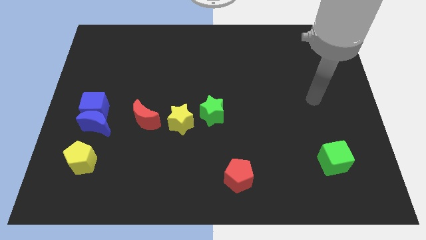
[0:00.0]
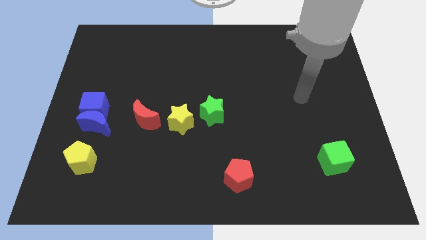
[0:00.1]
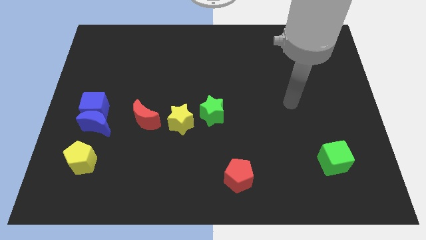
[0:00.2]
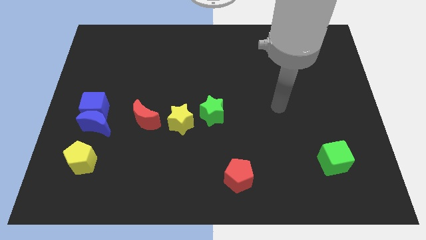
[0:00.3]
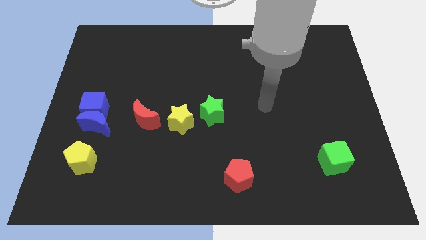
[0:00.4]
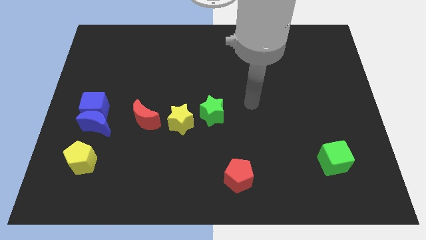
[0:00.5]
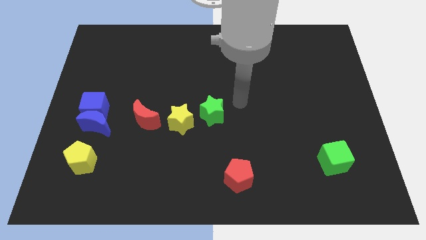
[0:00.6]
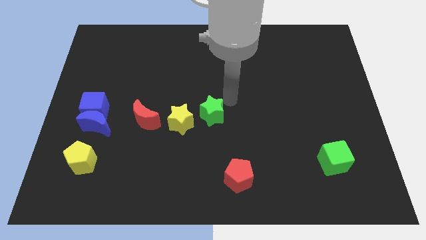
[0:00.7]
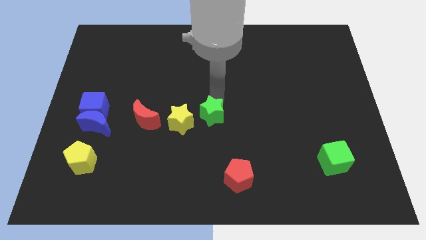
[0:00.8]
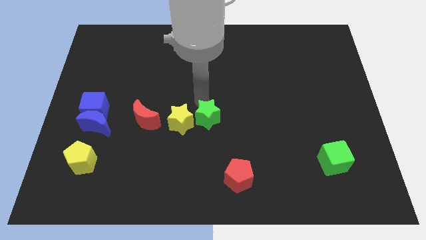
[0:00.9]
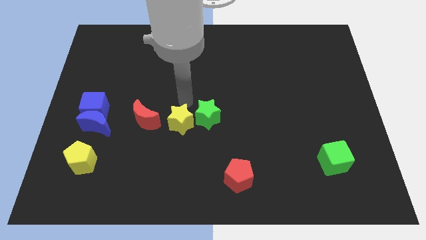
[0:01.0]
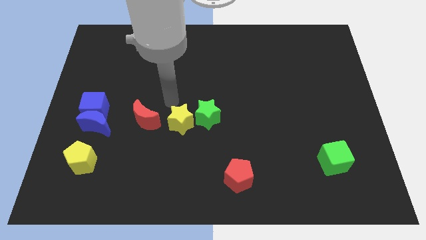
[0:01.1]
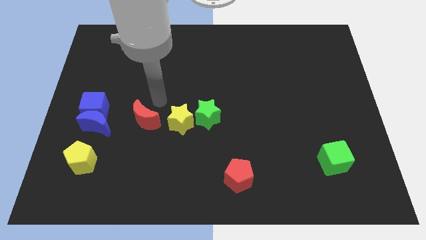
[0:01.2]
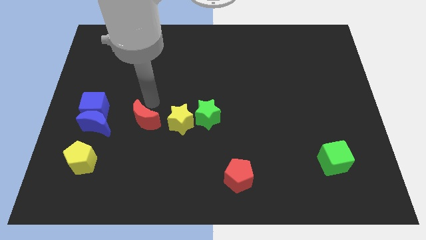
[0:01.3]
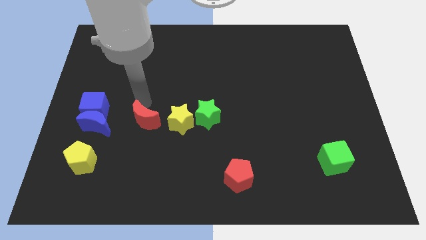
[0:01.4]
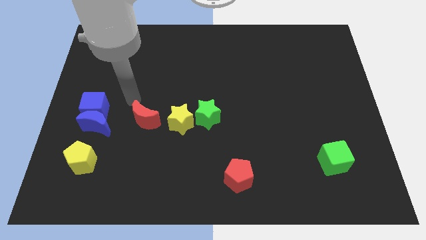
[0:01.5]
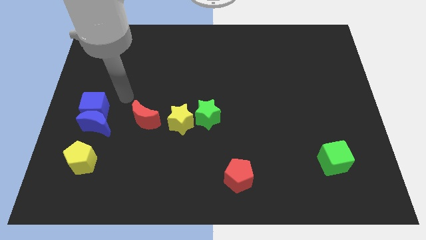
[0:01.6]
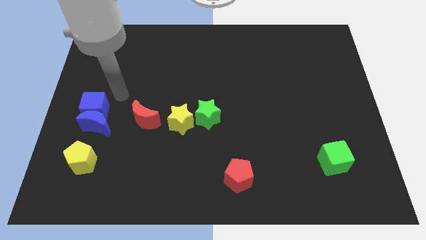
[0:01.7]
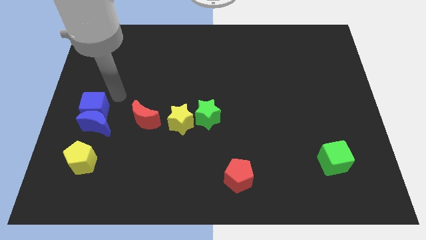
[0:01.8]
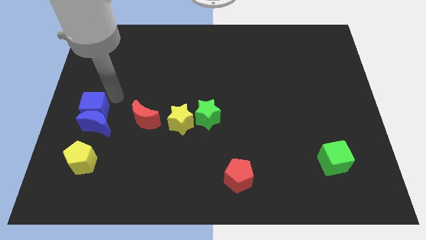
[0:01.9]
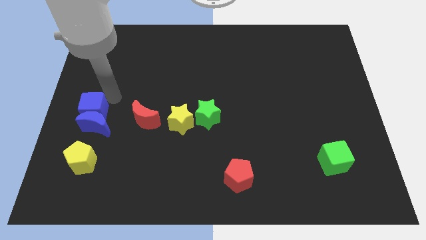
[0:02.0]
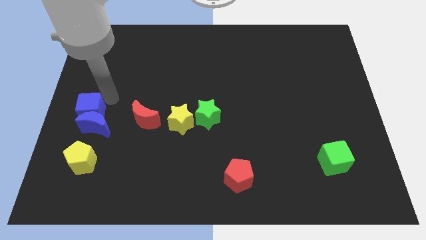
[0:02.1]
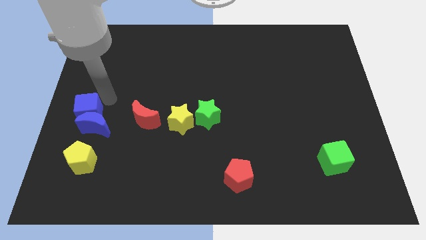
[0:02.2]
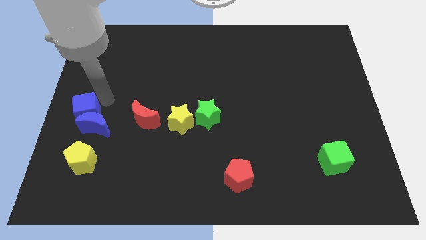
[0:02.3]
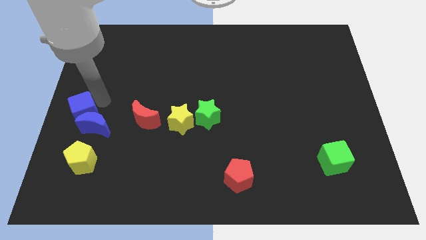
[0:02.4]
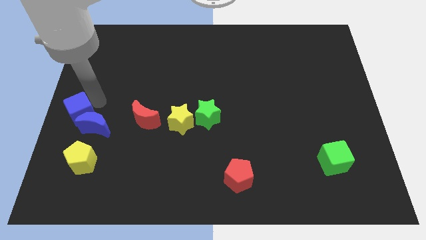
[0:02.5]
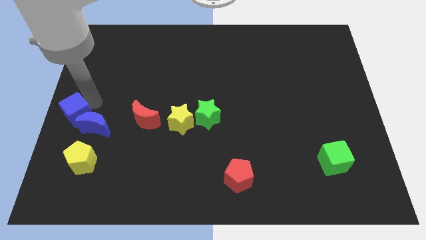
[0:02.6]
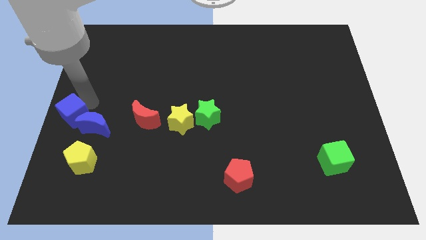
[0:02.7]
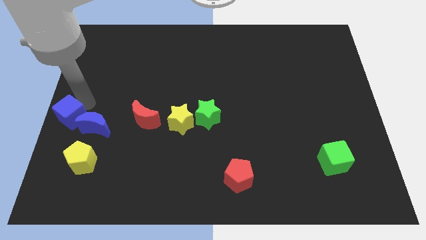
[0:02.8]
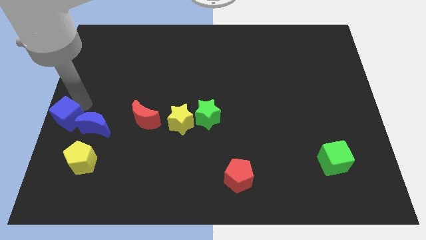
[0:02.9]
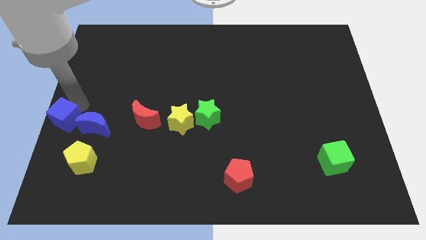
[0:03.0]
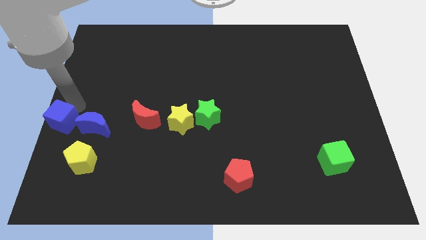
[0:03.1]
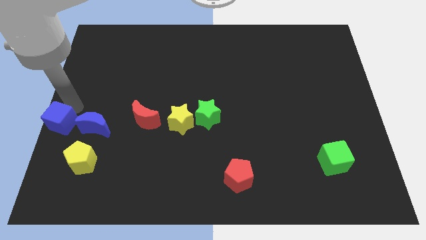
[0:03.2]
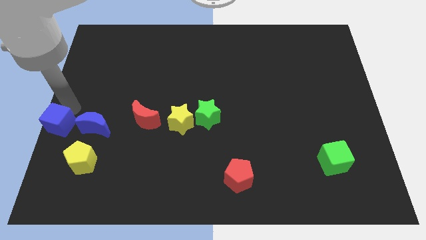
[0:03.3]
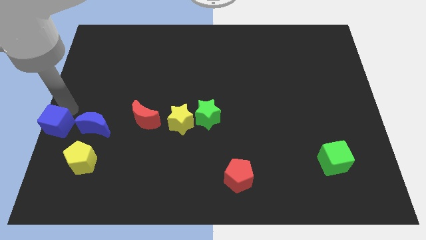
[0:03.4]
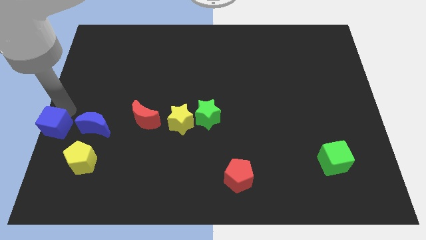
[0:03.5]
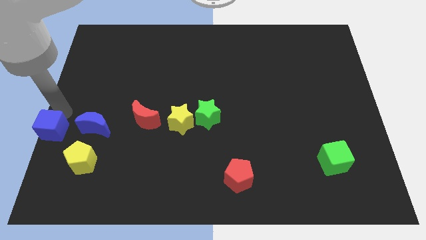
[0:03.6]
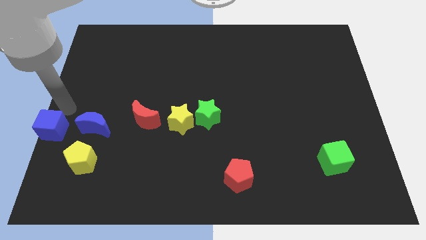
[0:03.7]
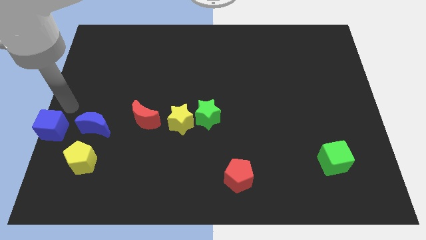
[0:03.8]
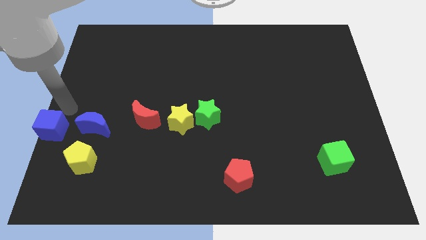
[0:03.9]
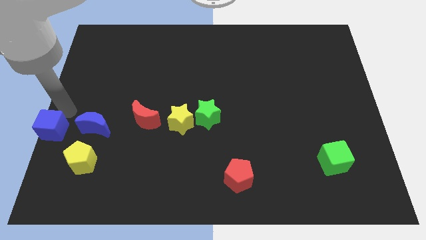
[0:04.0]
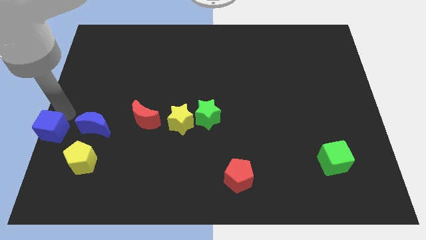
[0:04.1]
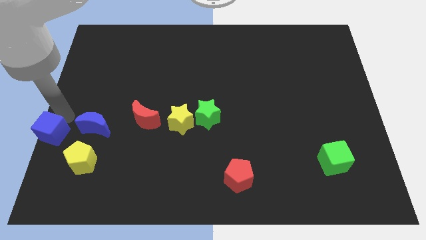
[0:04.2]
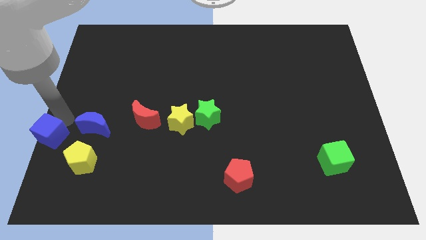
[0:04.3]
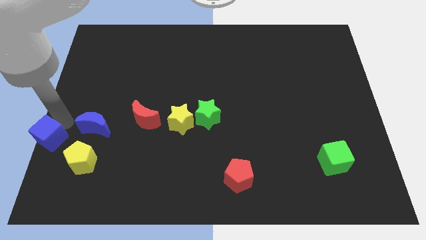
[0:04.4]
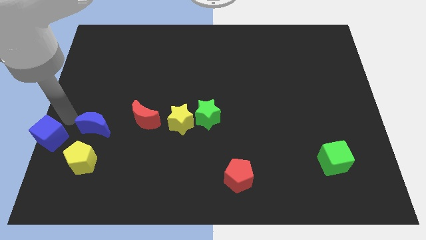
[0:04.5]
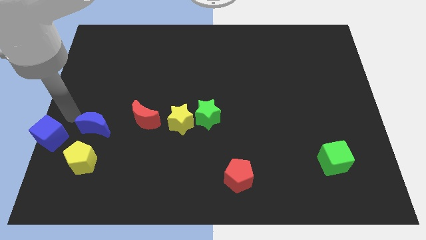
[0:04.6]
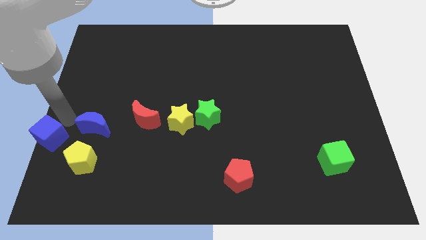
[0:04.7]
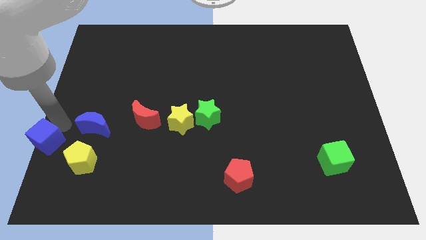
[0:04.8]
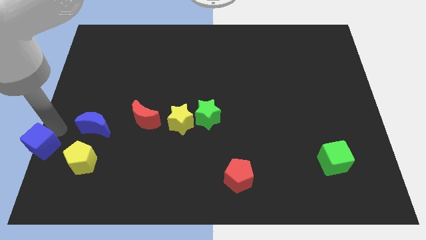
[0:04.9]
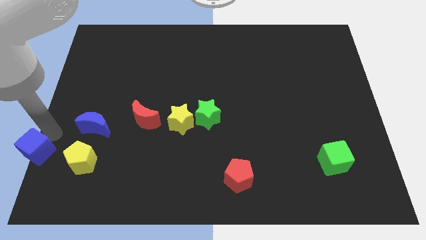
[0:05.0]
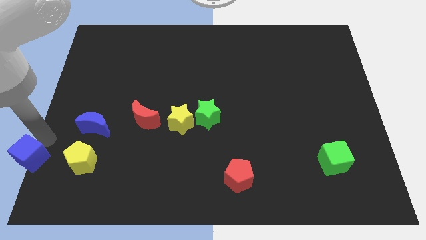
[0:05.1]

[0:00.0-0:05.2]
move the blue cube to the bottom left
